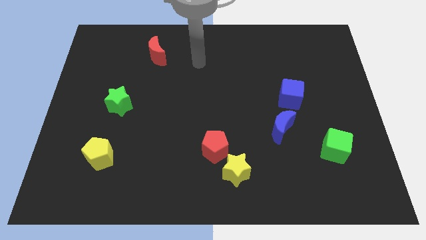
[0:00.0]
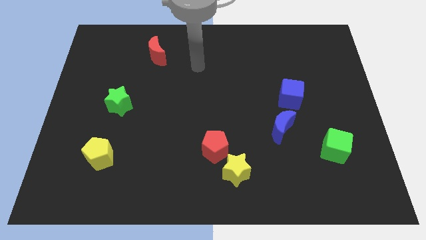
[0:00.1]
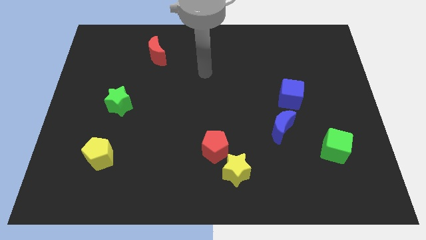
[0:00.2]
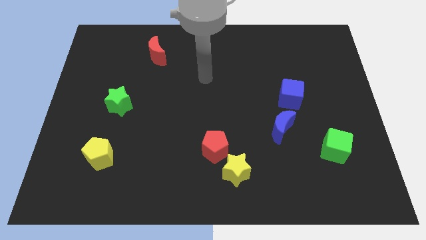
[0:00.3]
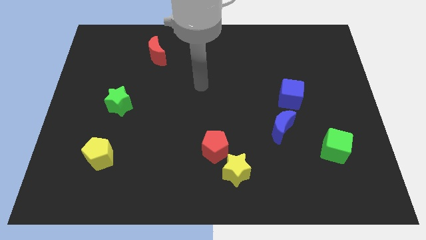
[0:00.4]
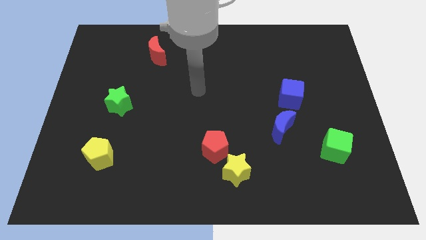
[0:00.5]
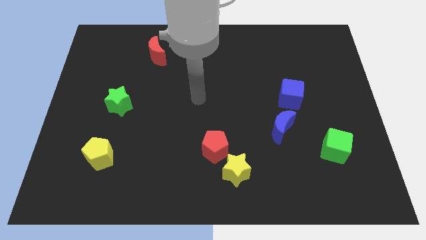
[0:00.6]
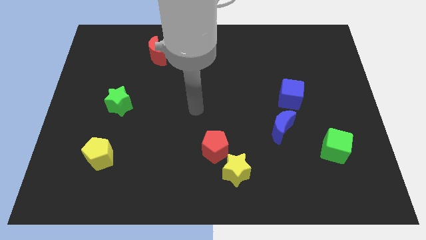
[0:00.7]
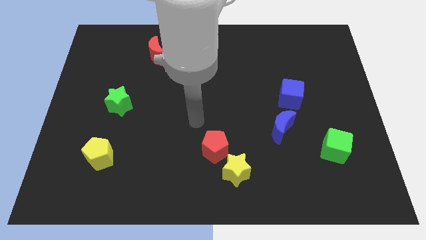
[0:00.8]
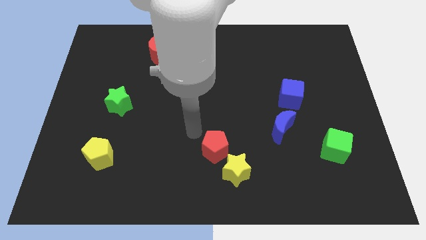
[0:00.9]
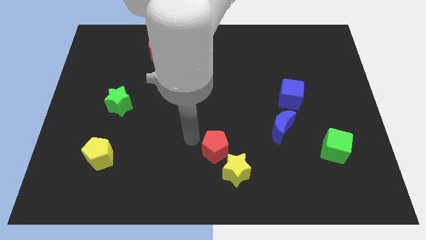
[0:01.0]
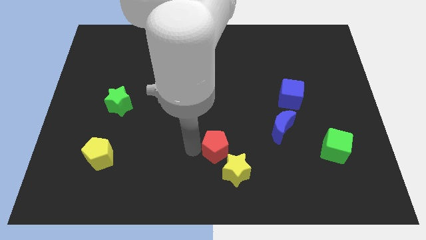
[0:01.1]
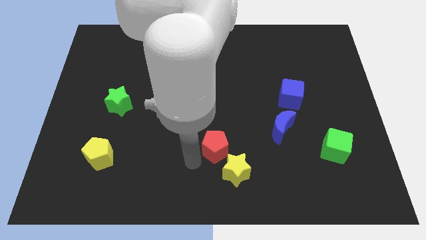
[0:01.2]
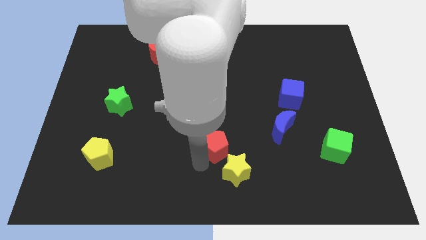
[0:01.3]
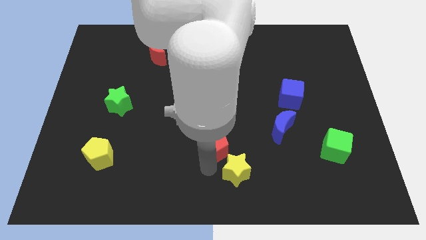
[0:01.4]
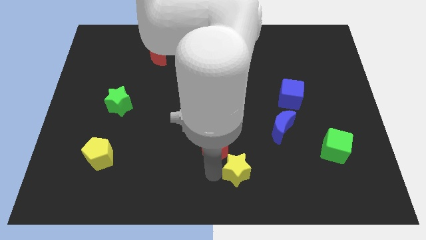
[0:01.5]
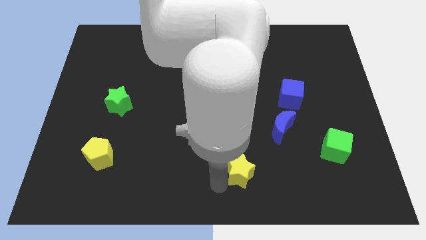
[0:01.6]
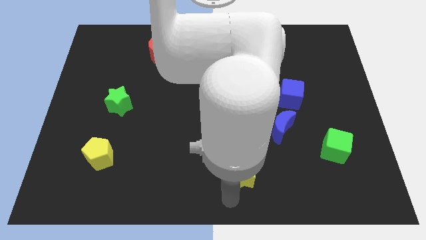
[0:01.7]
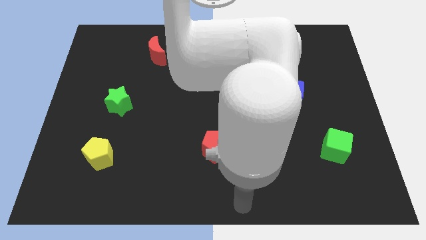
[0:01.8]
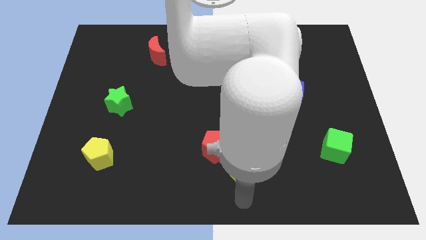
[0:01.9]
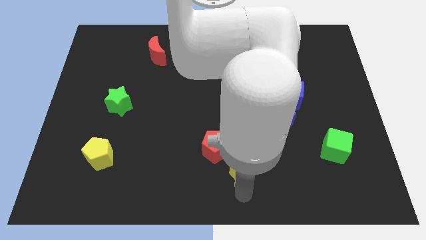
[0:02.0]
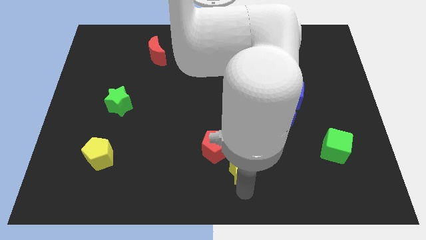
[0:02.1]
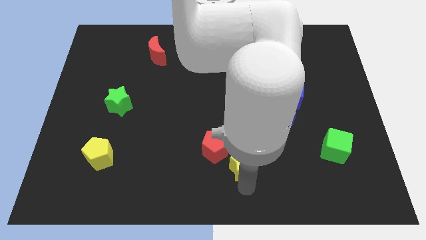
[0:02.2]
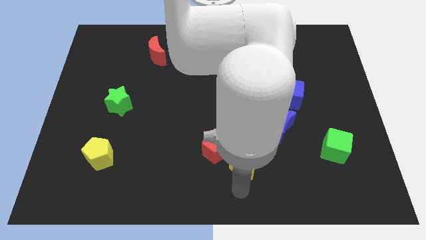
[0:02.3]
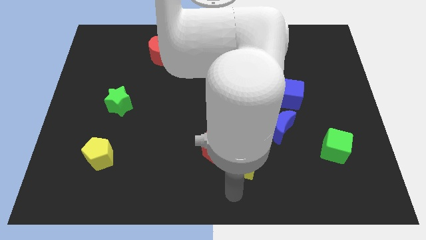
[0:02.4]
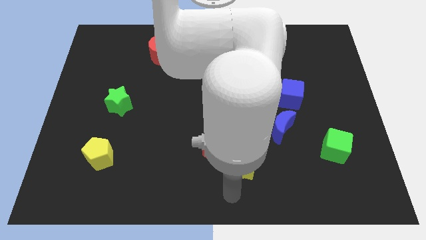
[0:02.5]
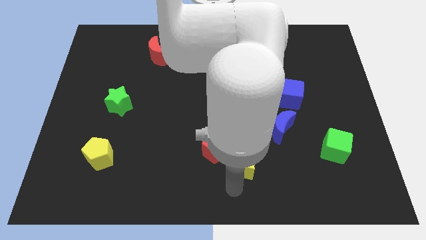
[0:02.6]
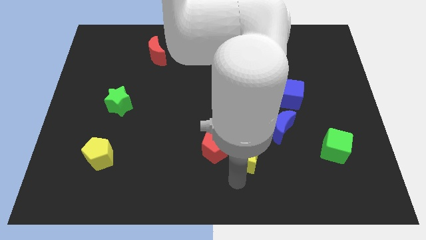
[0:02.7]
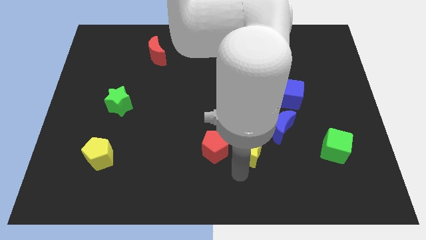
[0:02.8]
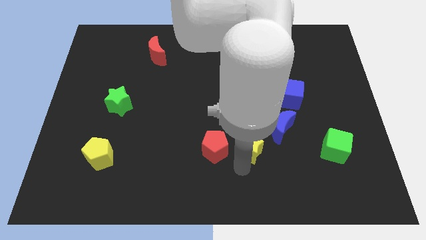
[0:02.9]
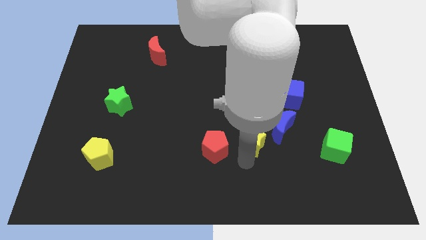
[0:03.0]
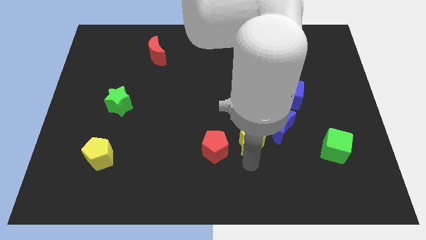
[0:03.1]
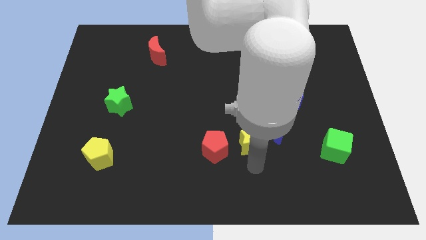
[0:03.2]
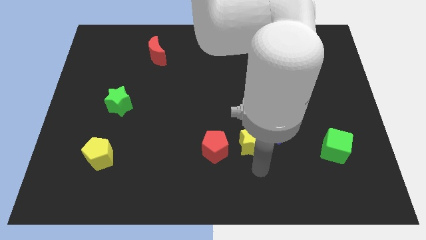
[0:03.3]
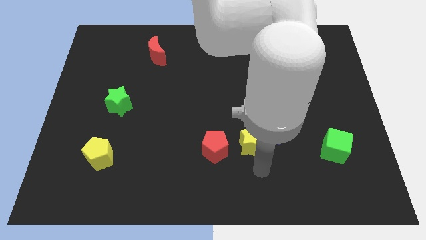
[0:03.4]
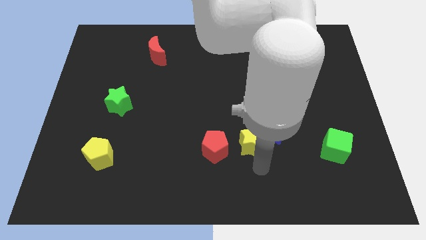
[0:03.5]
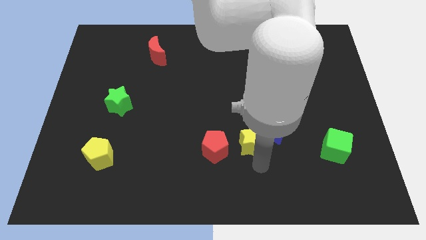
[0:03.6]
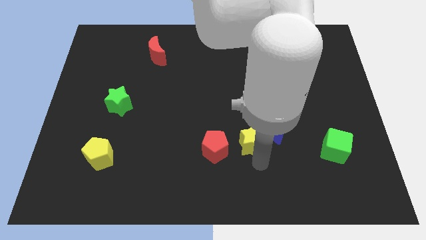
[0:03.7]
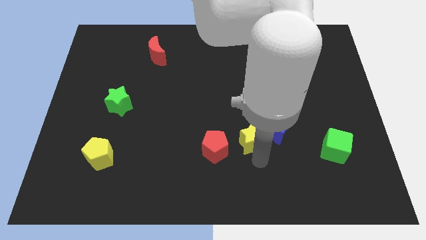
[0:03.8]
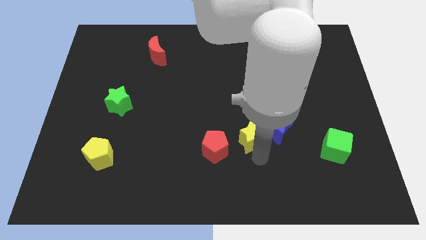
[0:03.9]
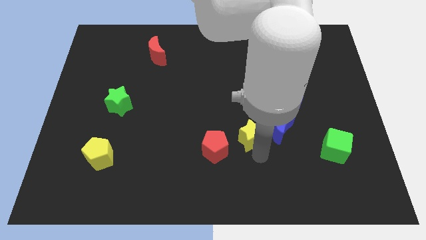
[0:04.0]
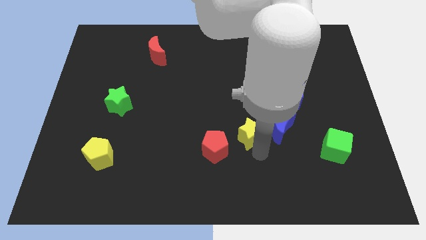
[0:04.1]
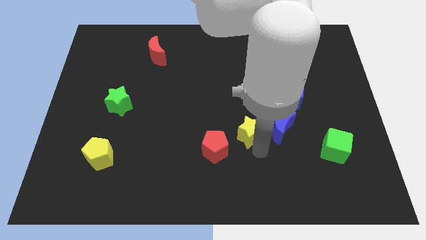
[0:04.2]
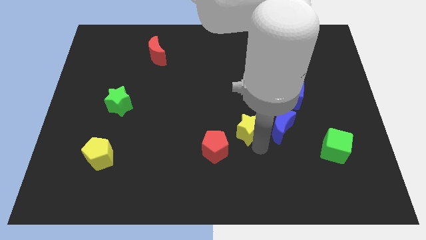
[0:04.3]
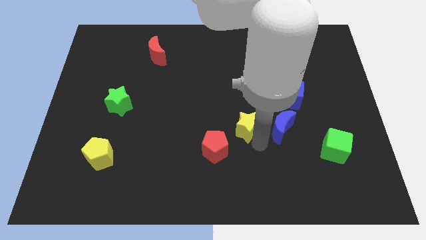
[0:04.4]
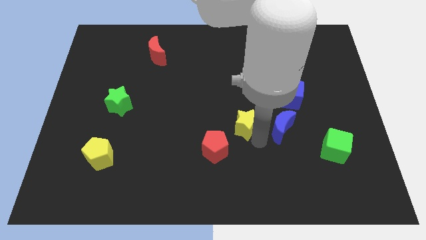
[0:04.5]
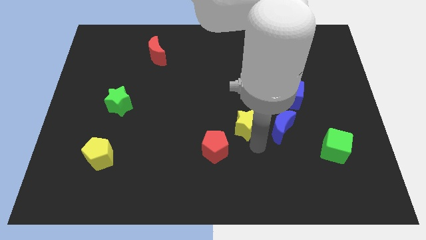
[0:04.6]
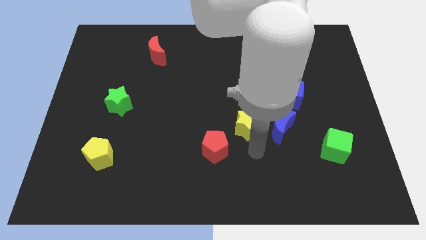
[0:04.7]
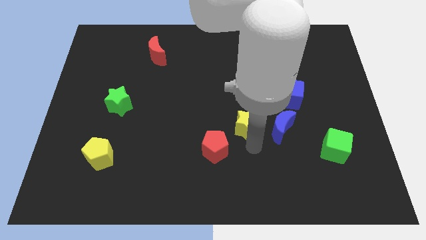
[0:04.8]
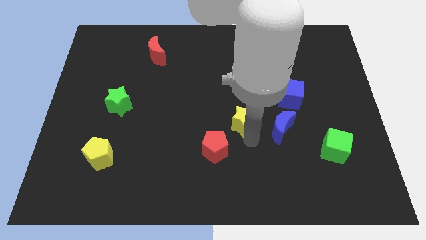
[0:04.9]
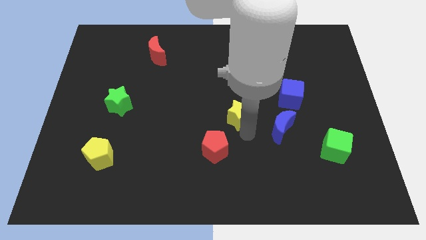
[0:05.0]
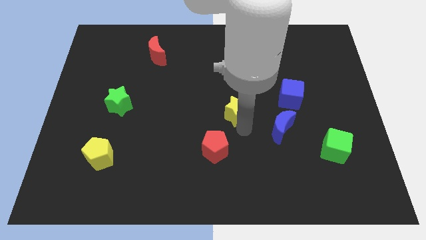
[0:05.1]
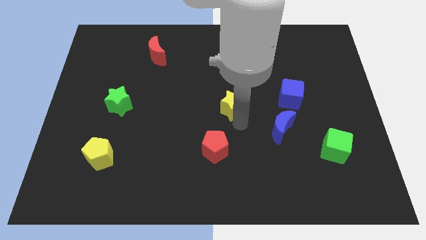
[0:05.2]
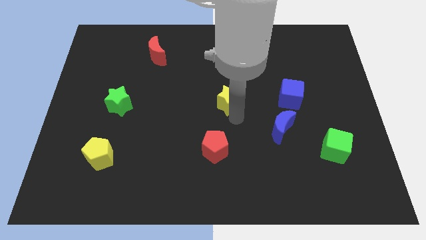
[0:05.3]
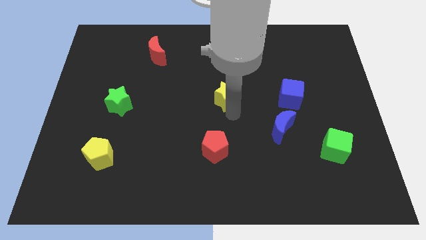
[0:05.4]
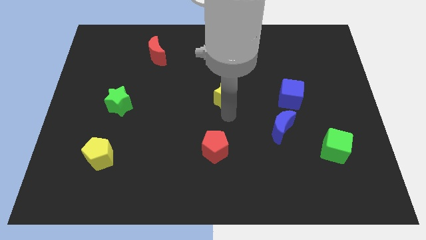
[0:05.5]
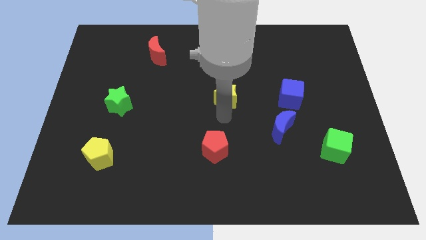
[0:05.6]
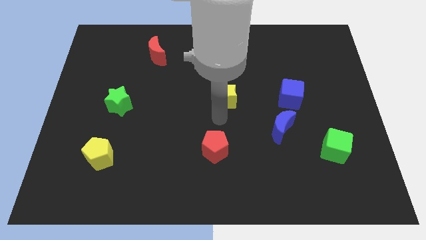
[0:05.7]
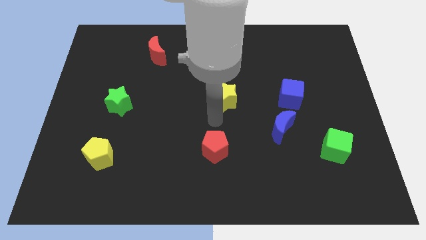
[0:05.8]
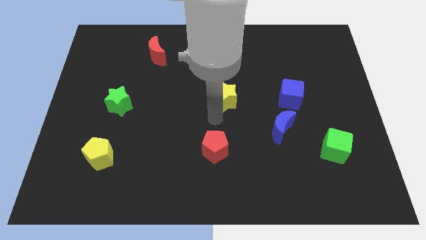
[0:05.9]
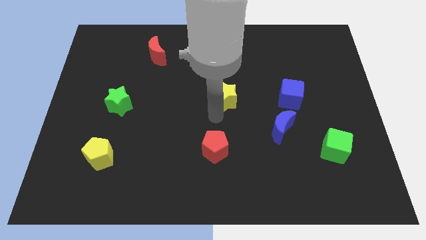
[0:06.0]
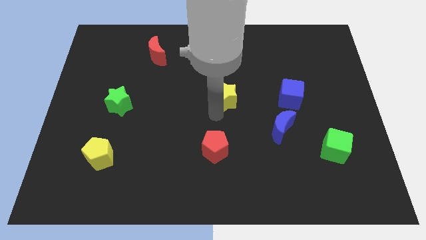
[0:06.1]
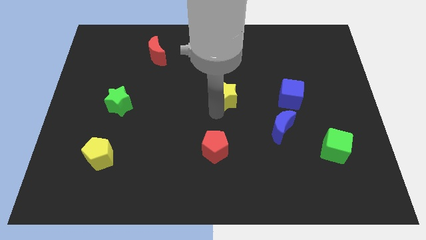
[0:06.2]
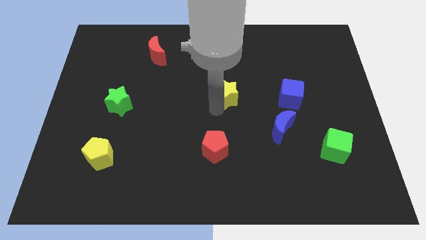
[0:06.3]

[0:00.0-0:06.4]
slide the yellow star up

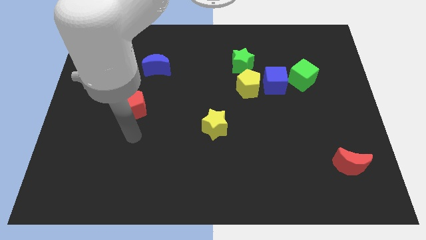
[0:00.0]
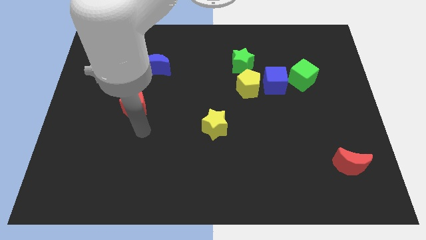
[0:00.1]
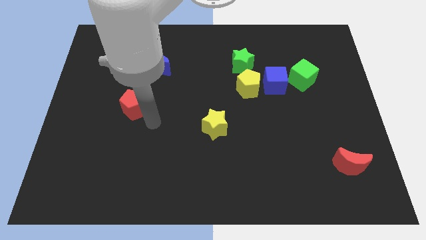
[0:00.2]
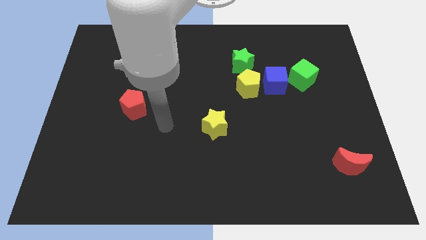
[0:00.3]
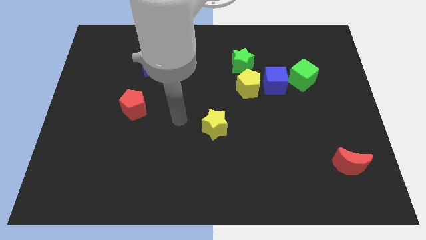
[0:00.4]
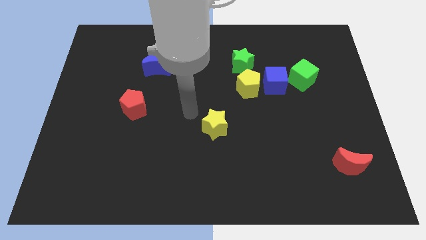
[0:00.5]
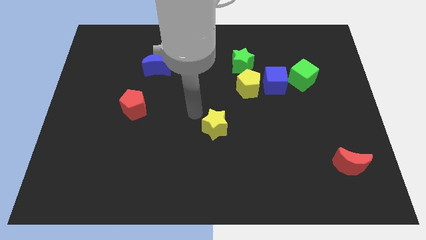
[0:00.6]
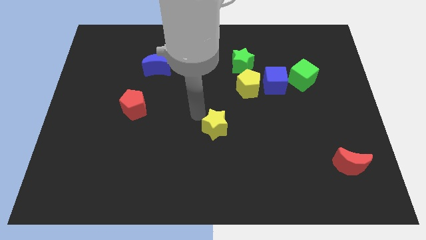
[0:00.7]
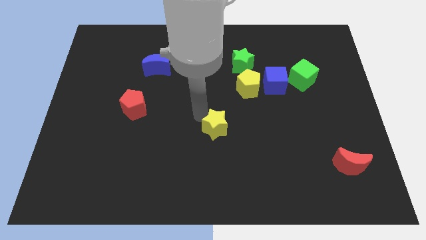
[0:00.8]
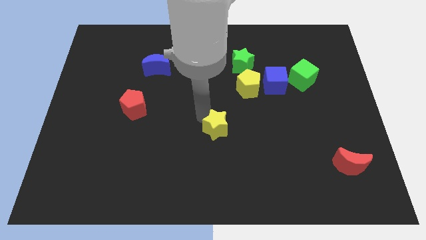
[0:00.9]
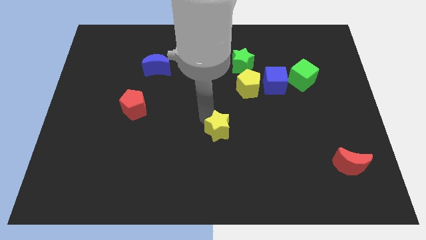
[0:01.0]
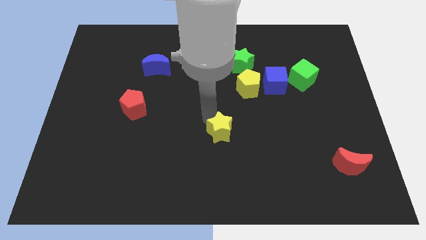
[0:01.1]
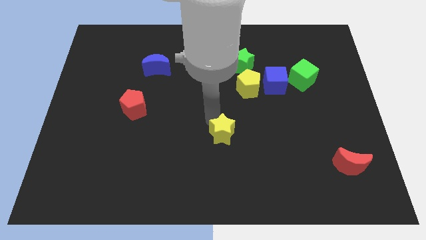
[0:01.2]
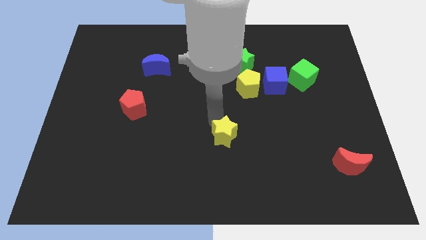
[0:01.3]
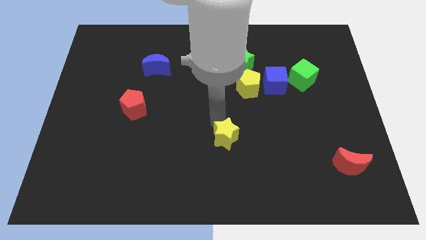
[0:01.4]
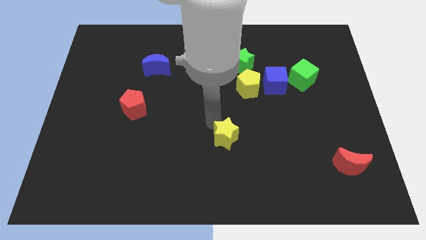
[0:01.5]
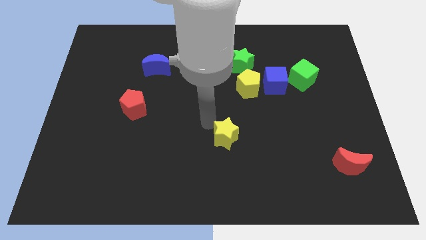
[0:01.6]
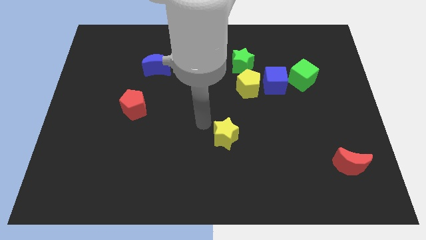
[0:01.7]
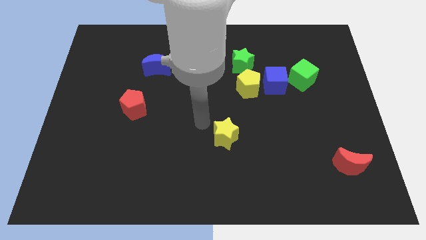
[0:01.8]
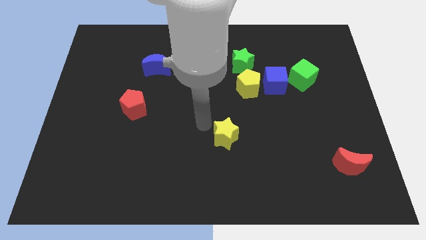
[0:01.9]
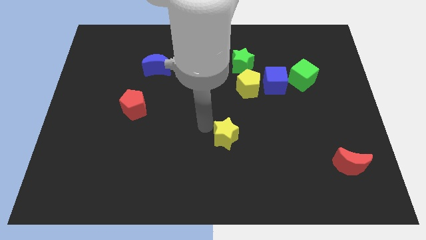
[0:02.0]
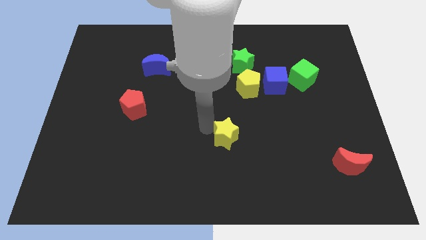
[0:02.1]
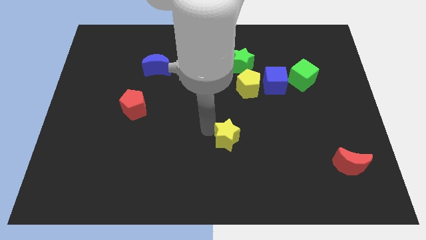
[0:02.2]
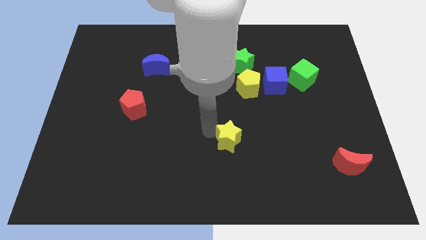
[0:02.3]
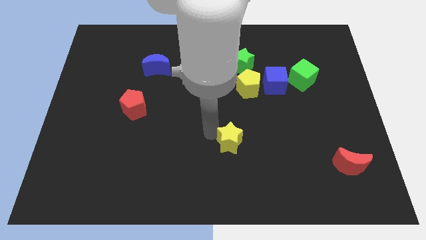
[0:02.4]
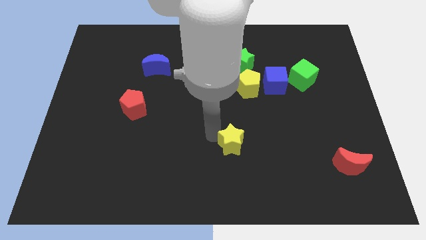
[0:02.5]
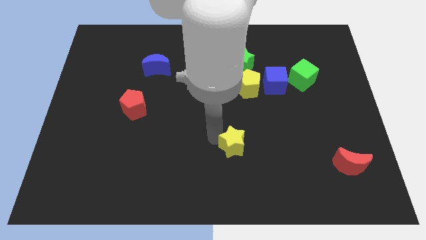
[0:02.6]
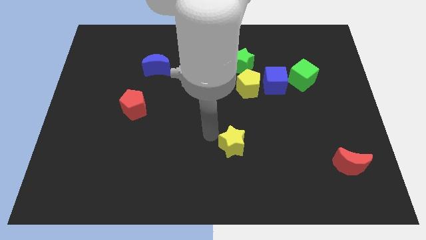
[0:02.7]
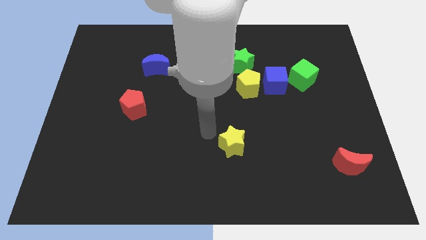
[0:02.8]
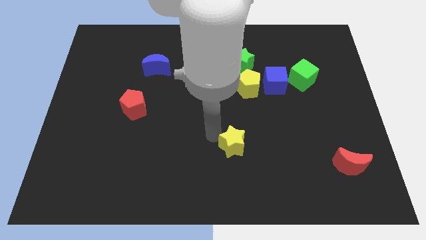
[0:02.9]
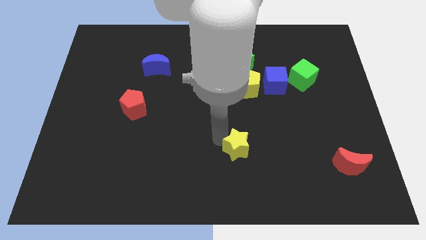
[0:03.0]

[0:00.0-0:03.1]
slightly slide the yellow star downwards and right diagonally
